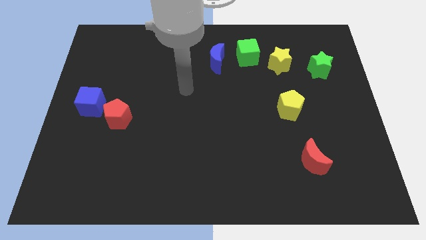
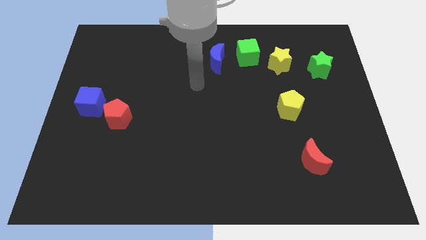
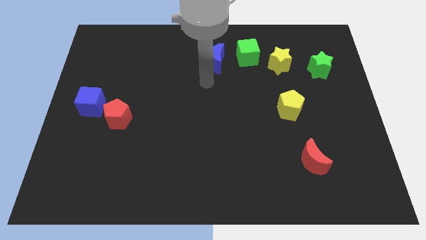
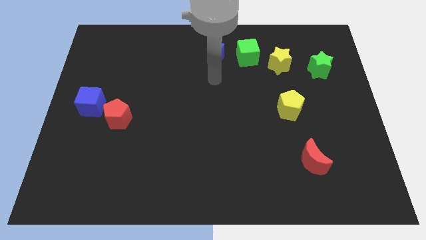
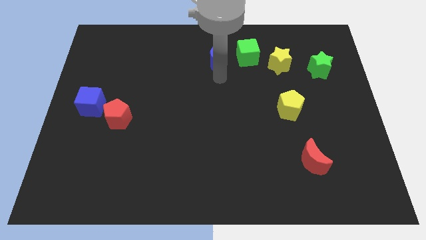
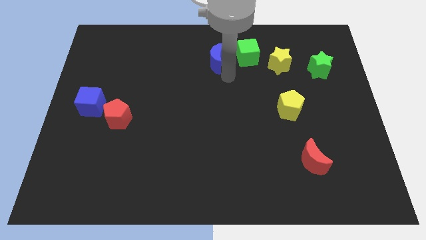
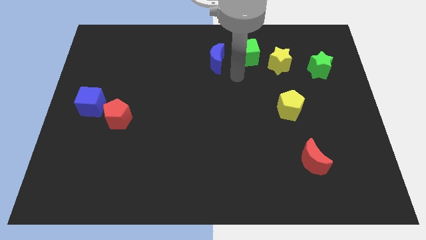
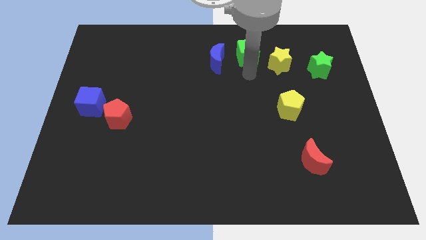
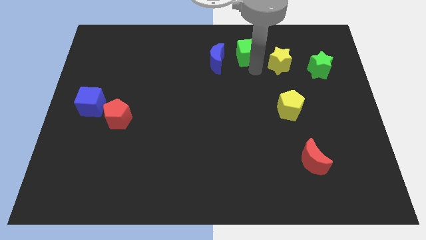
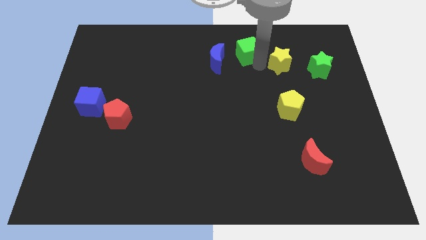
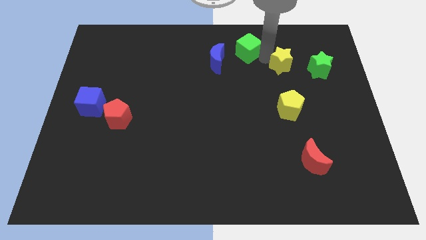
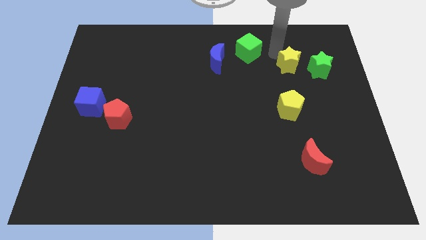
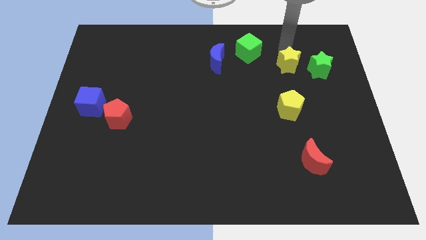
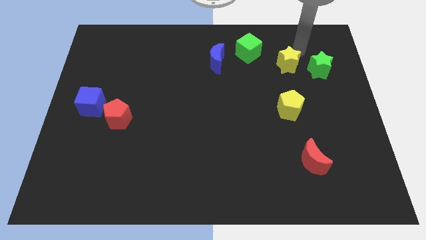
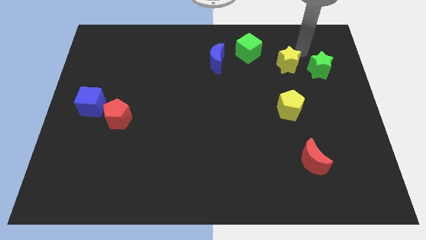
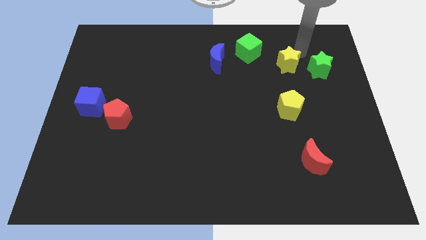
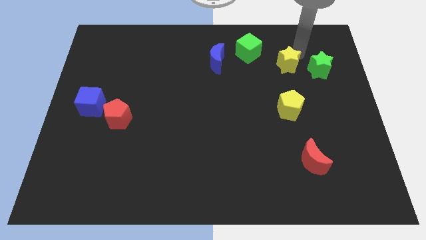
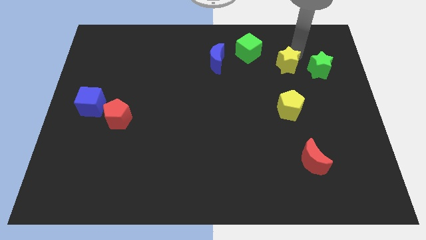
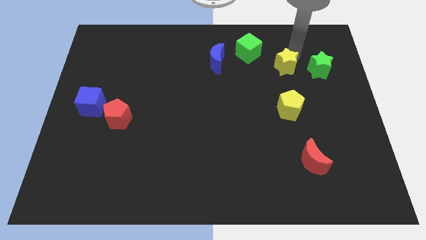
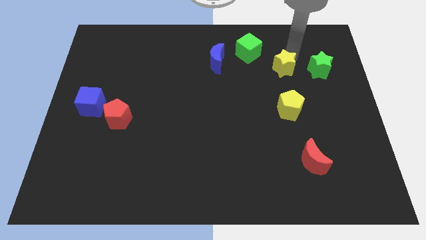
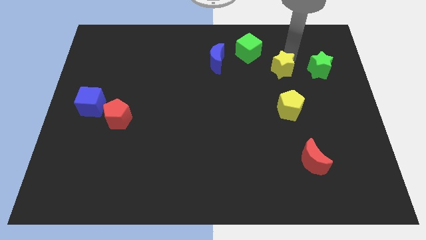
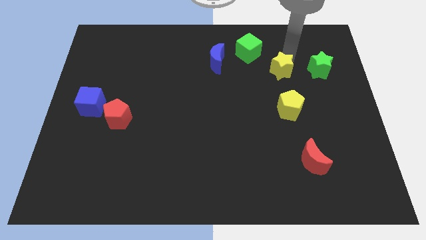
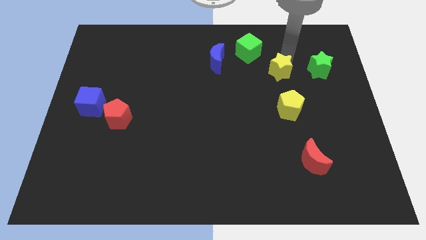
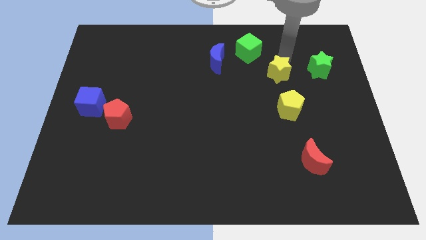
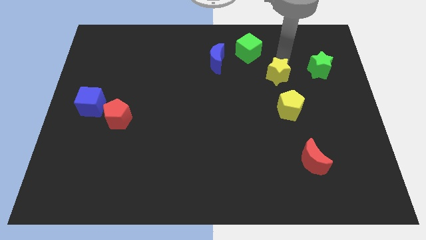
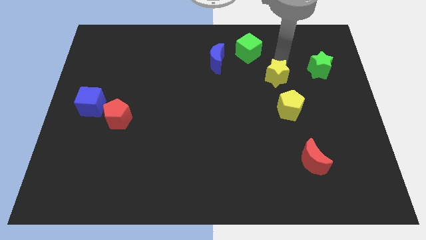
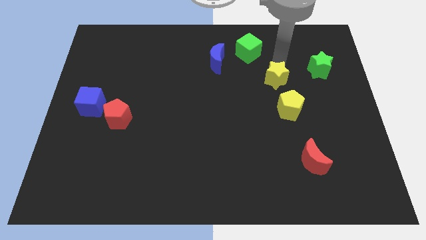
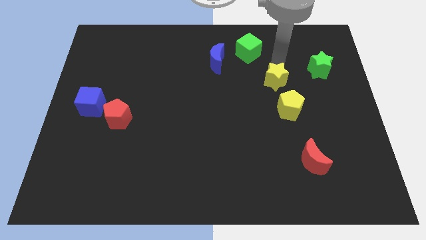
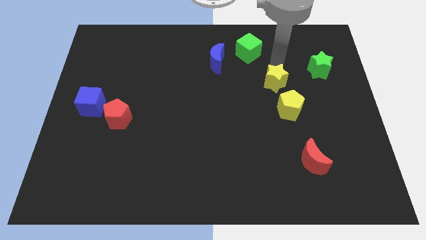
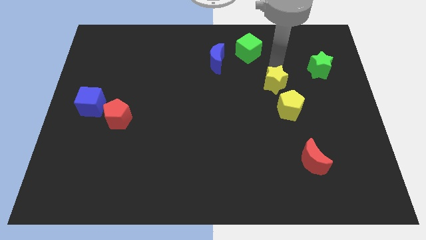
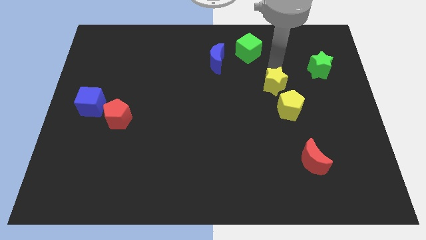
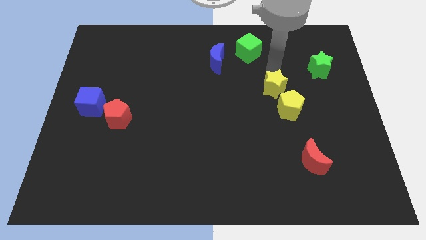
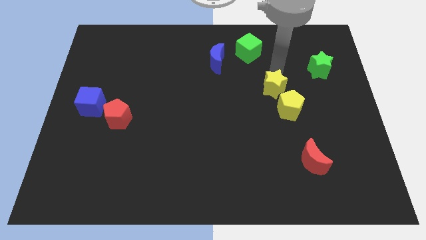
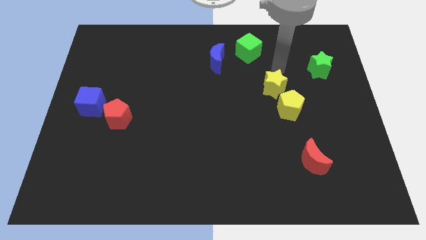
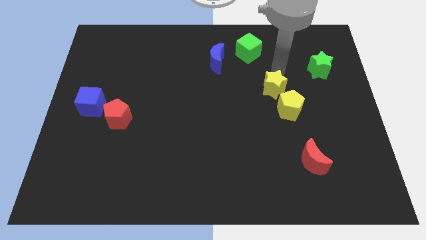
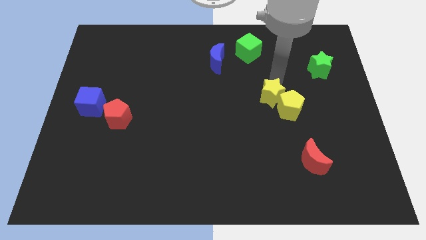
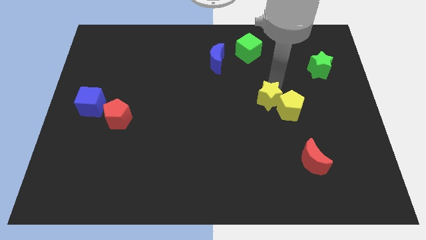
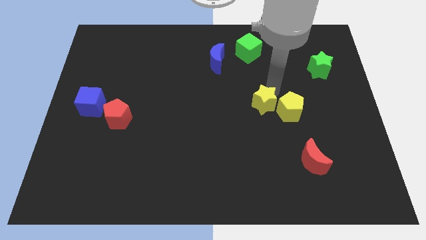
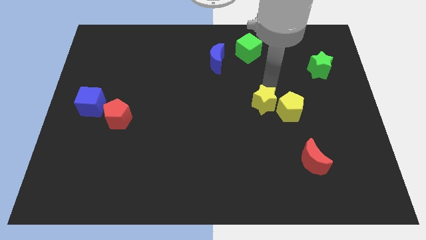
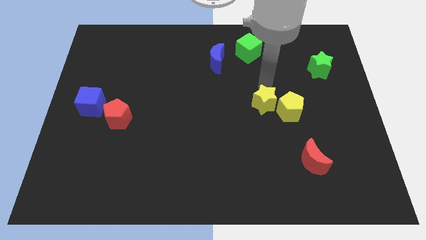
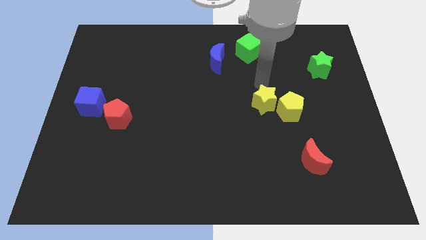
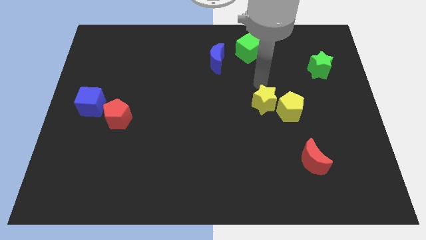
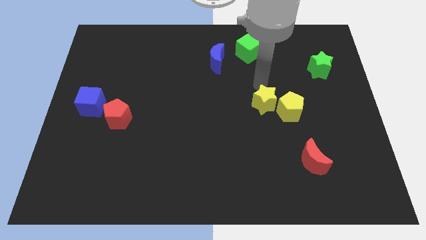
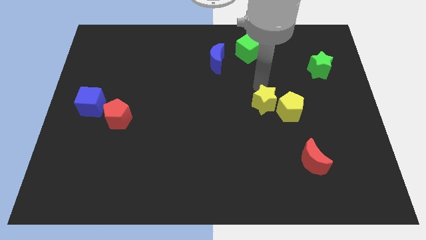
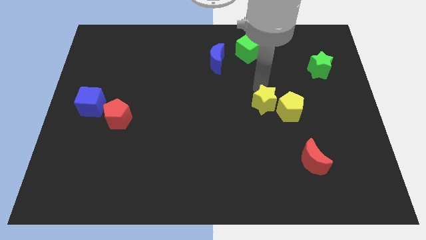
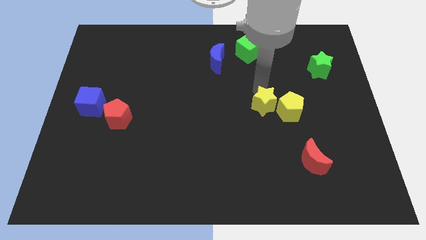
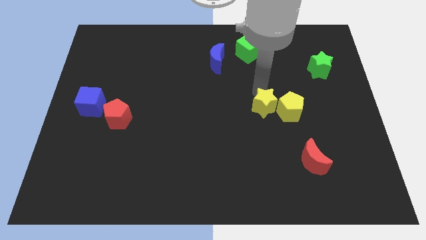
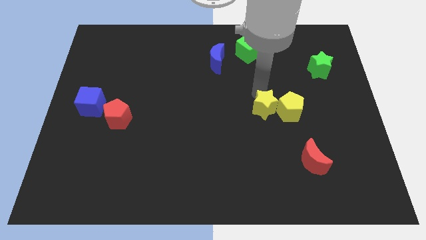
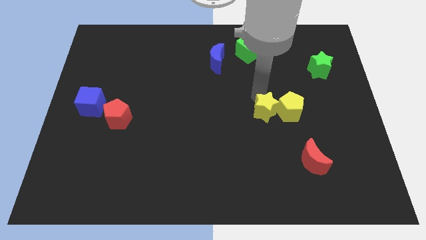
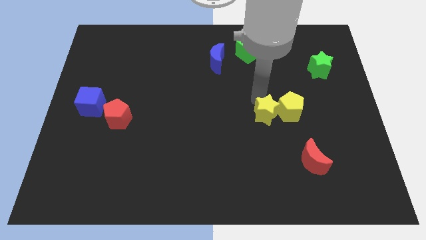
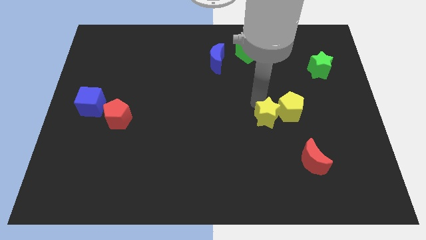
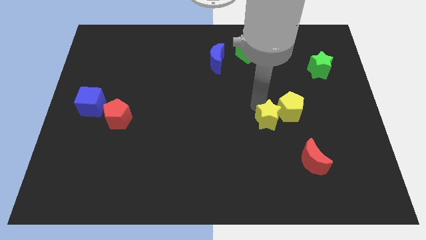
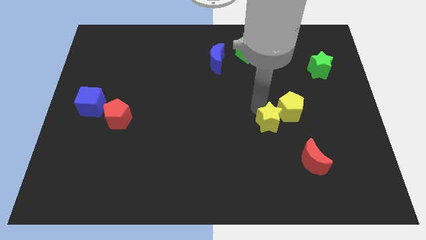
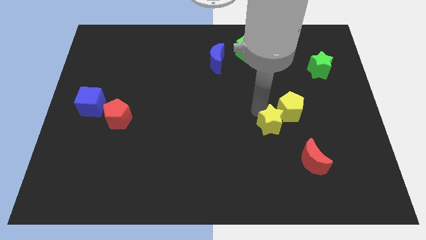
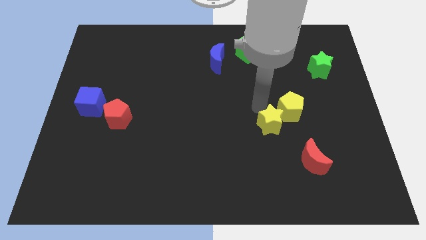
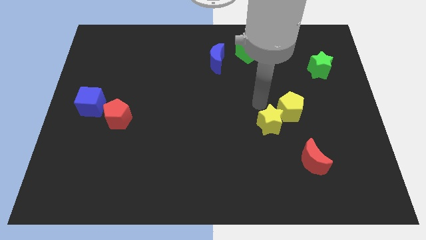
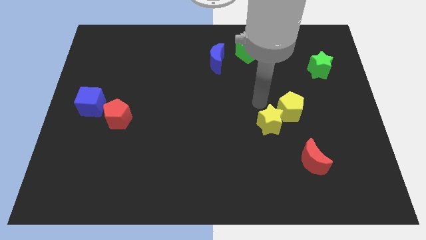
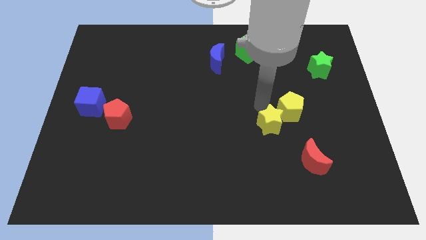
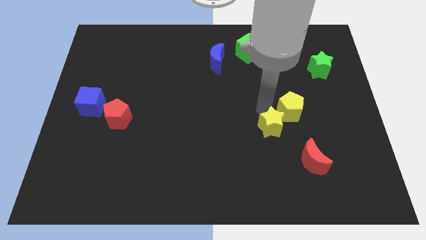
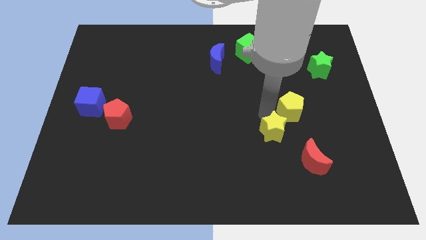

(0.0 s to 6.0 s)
move the yellow star down

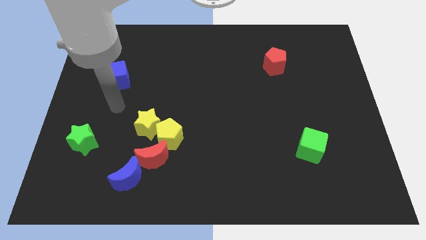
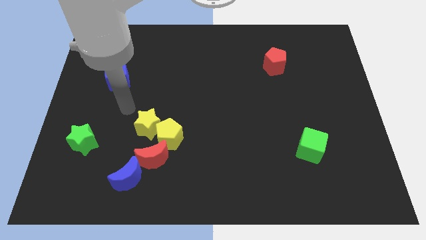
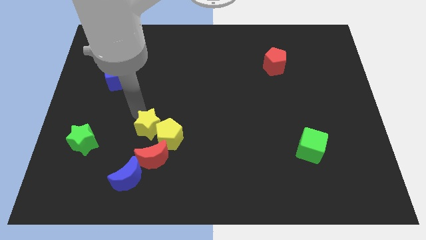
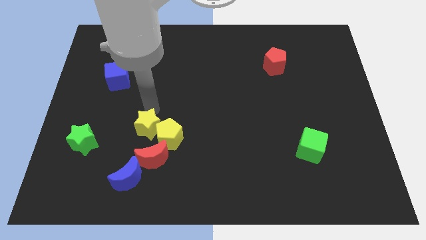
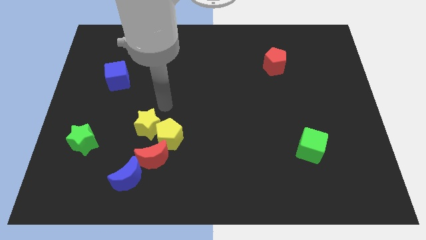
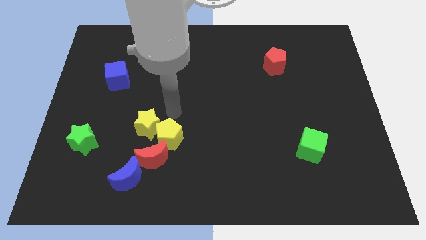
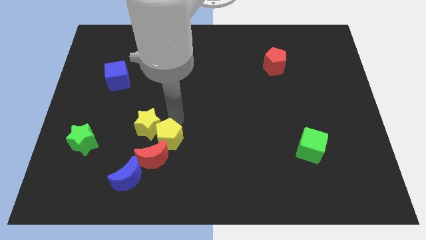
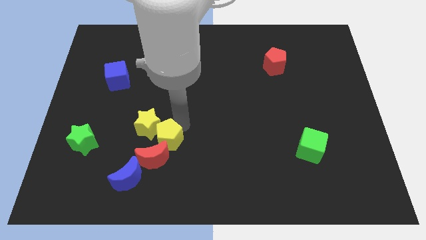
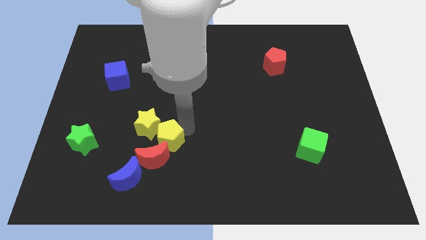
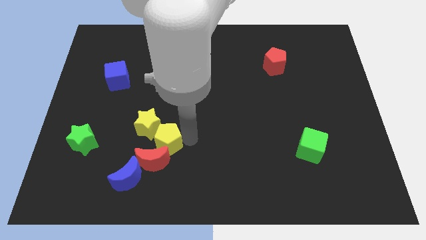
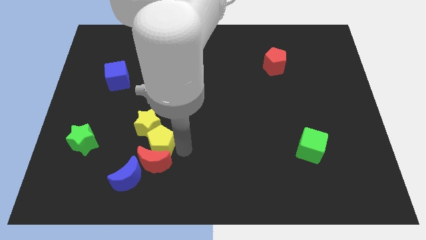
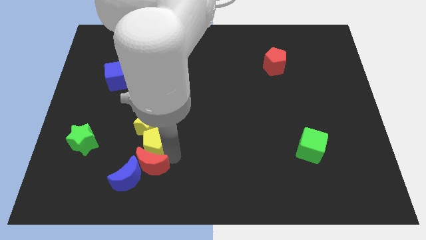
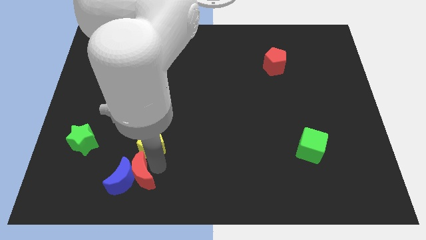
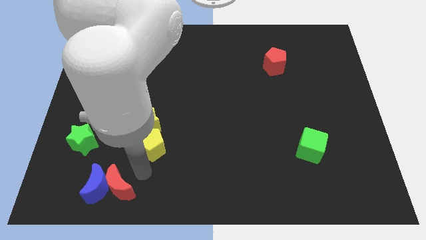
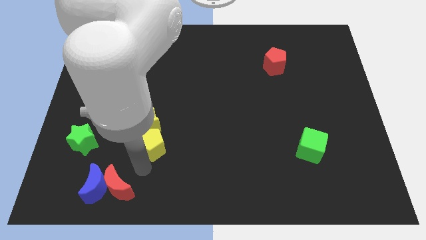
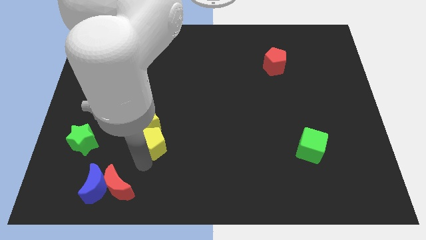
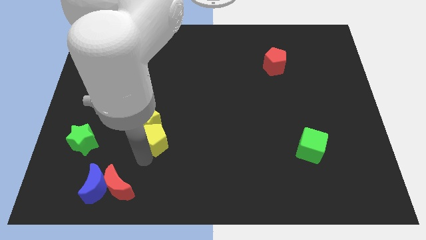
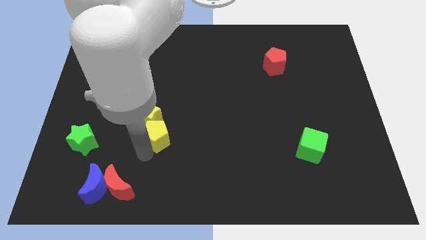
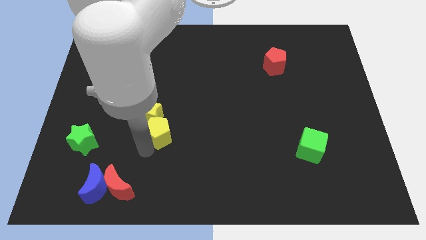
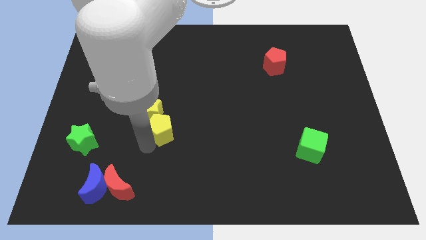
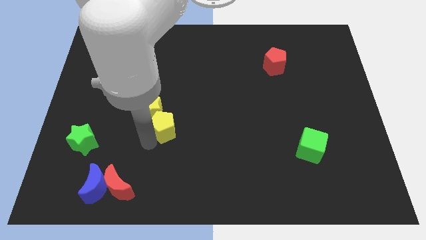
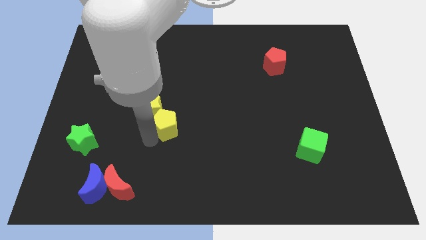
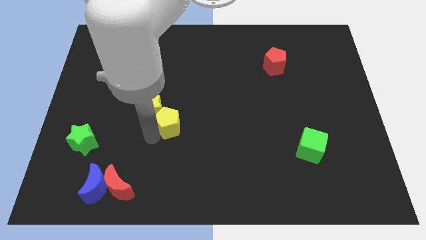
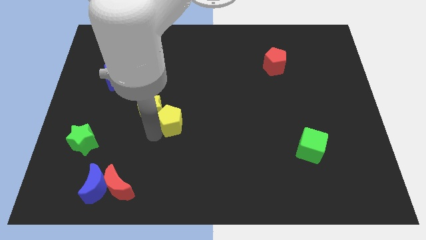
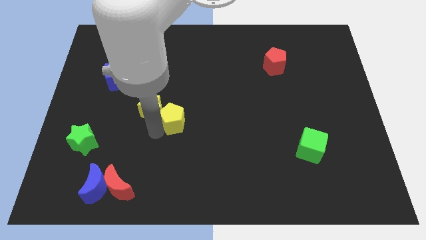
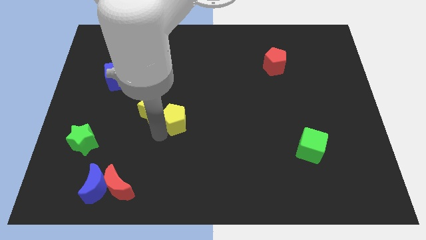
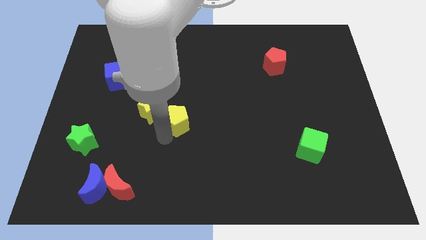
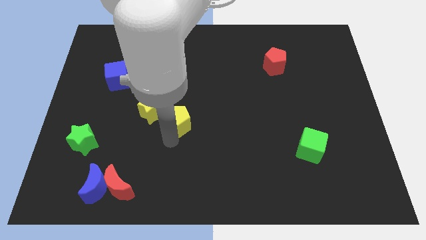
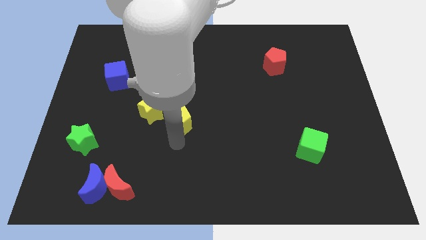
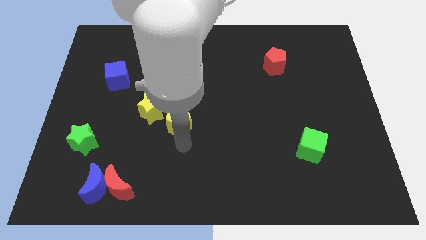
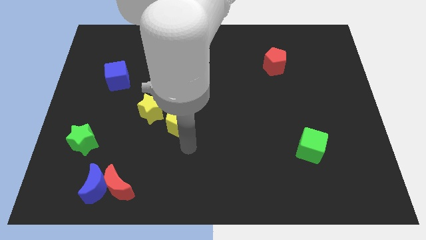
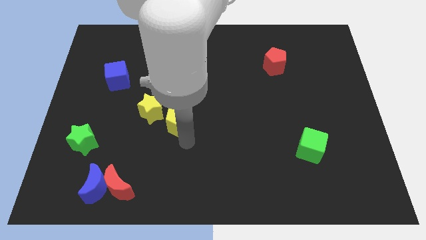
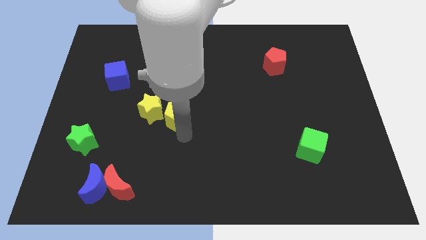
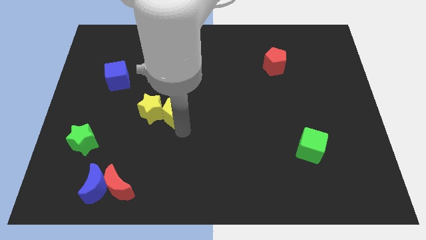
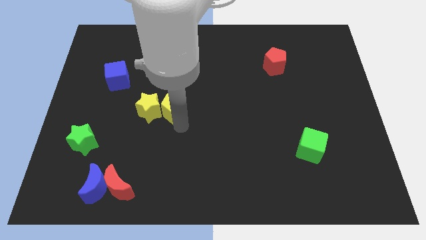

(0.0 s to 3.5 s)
push the yellow pentagon up a bit
